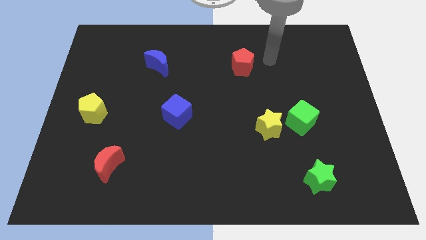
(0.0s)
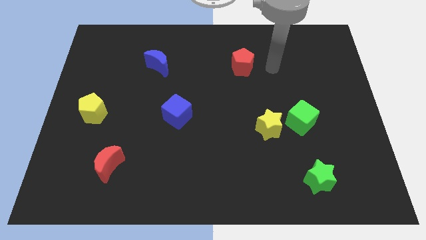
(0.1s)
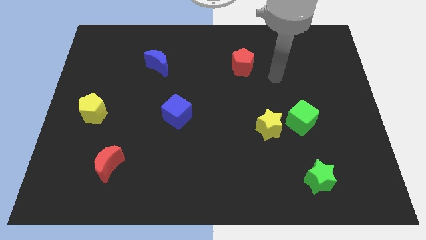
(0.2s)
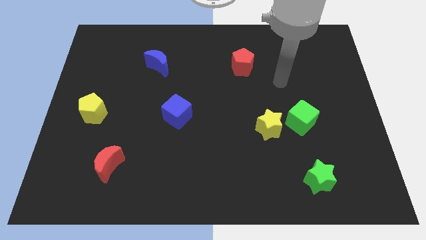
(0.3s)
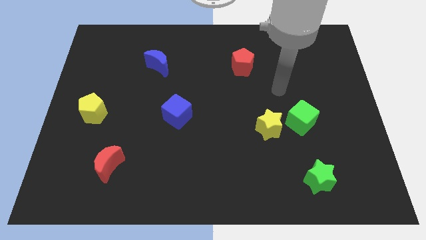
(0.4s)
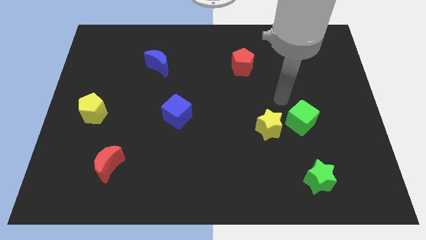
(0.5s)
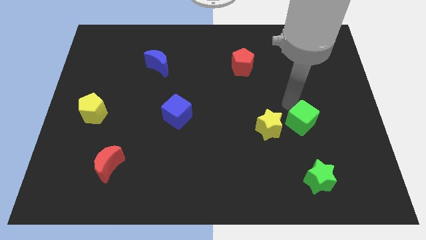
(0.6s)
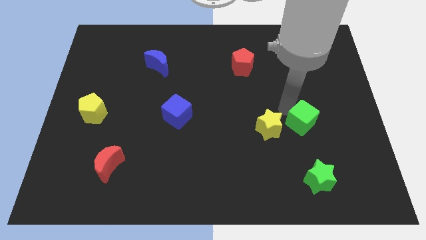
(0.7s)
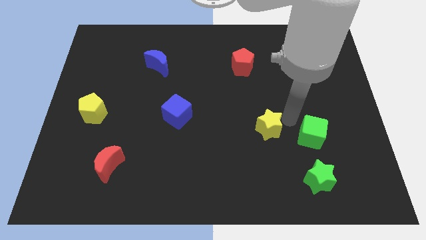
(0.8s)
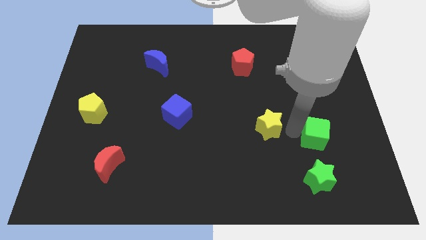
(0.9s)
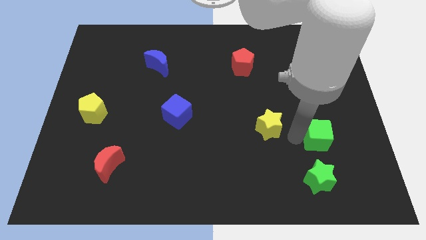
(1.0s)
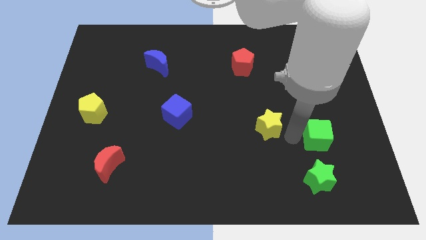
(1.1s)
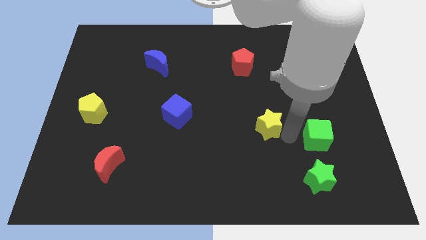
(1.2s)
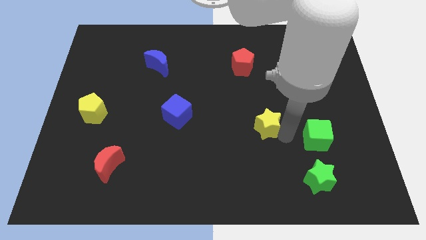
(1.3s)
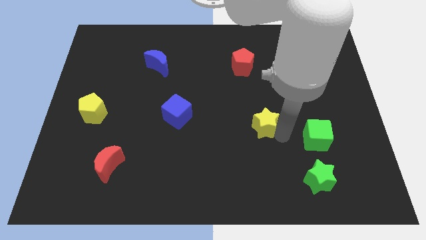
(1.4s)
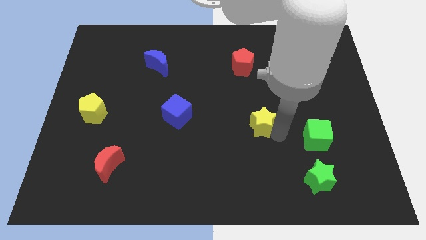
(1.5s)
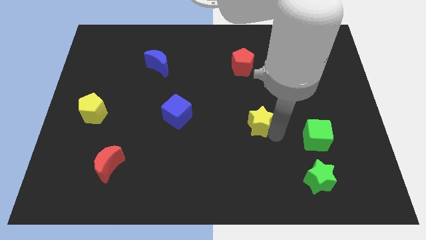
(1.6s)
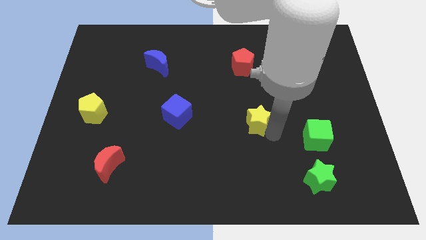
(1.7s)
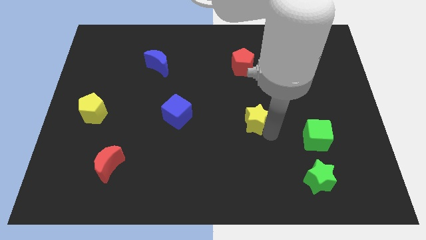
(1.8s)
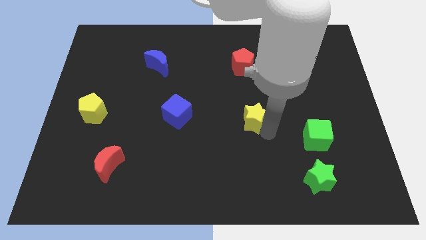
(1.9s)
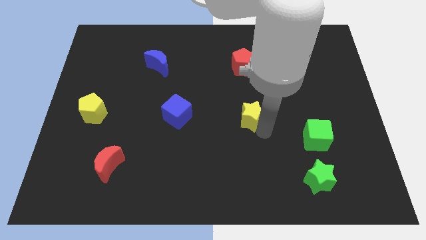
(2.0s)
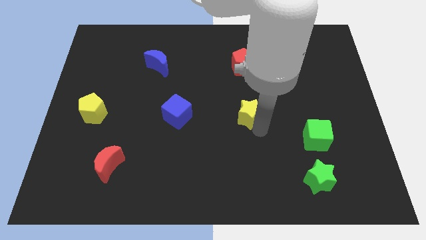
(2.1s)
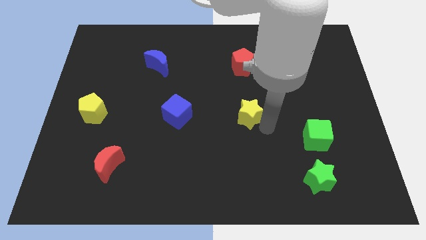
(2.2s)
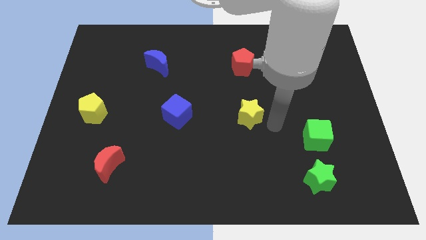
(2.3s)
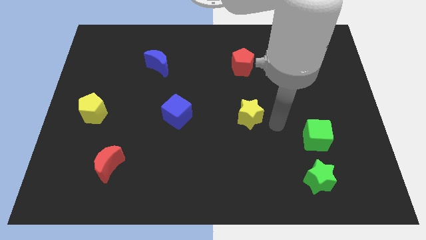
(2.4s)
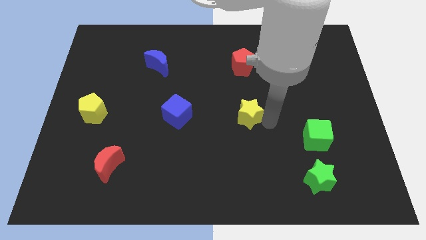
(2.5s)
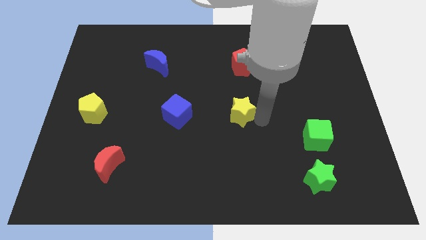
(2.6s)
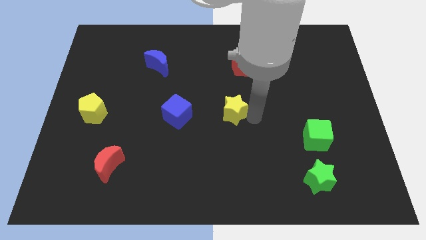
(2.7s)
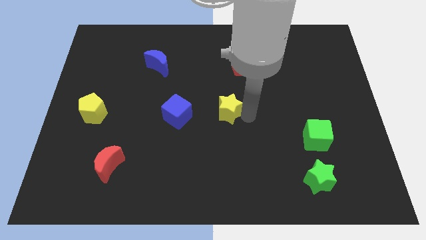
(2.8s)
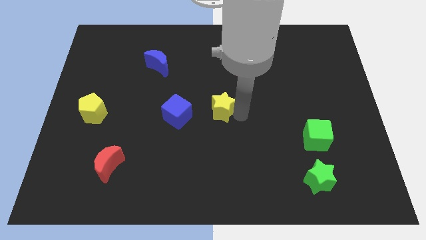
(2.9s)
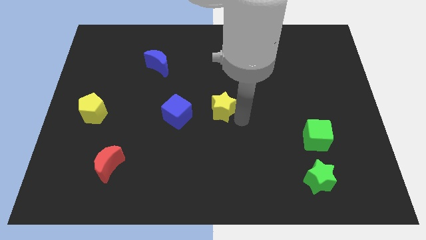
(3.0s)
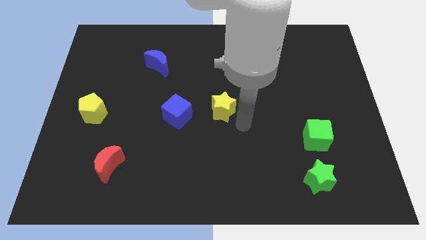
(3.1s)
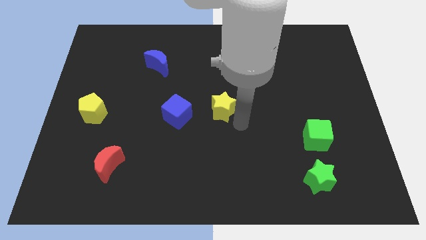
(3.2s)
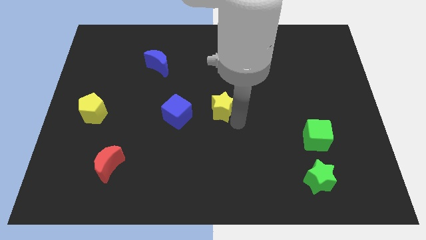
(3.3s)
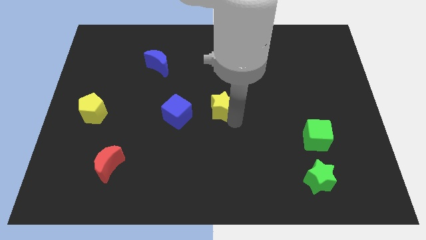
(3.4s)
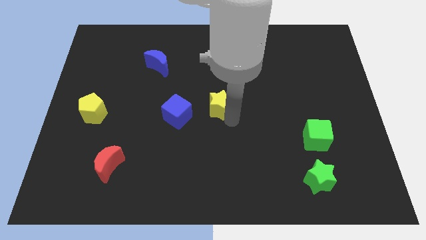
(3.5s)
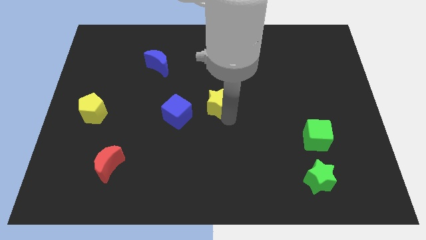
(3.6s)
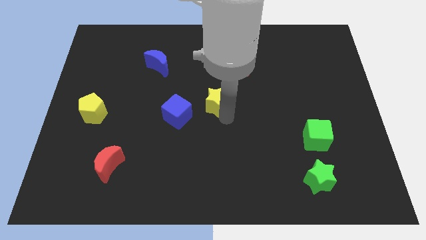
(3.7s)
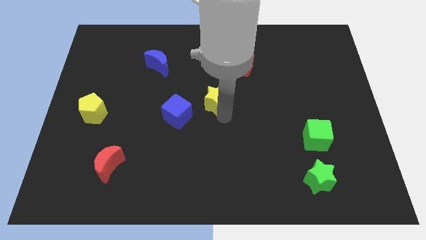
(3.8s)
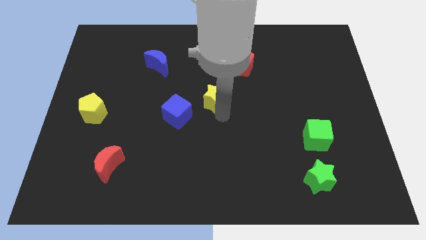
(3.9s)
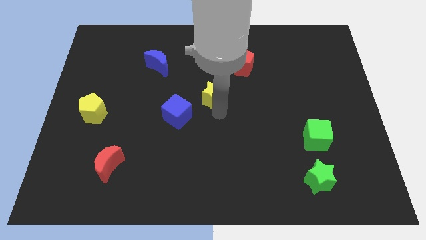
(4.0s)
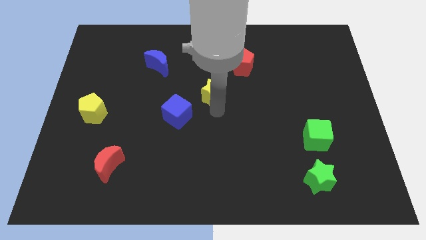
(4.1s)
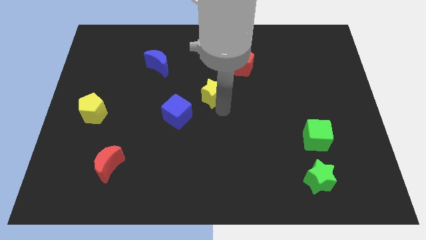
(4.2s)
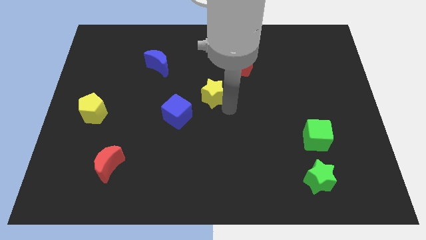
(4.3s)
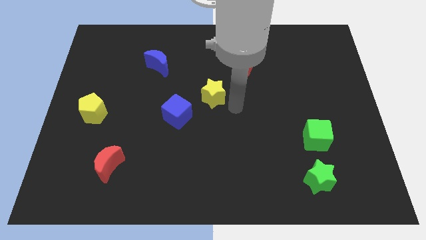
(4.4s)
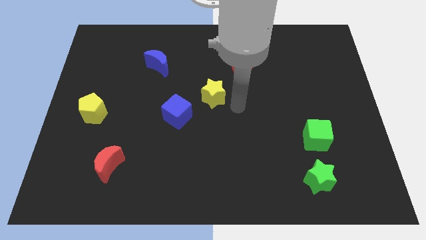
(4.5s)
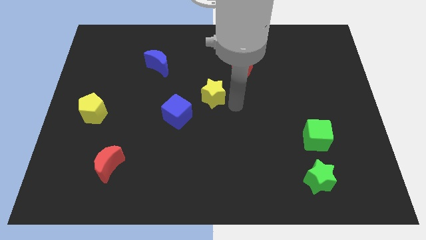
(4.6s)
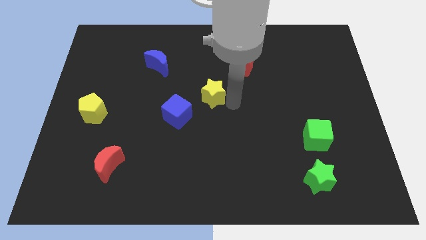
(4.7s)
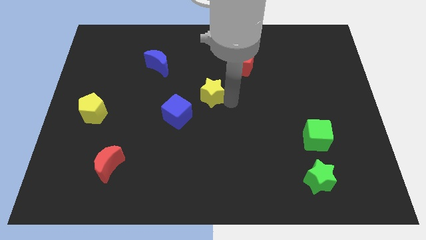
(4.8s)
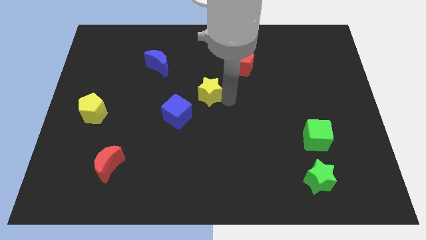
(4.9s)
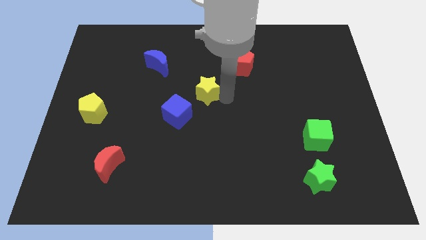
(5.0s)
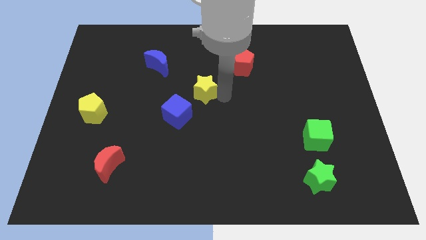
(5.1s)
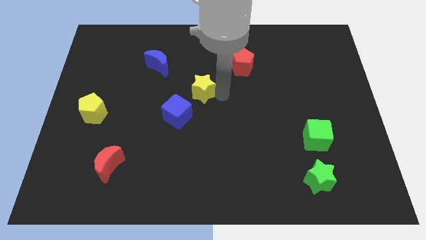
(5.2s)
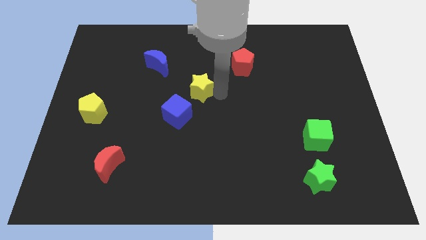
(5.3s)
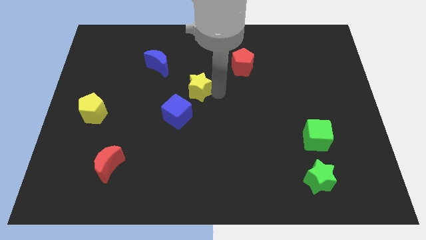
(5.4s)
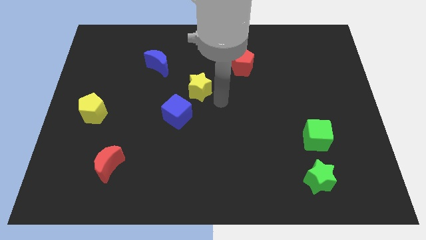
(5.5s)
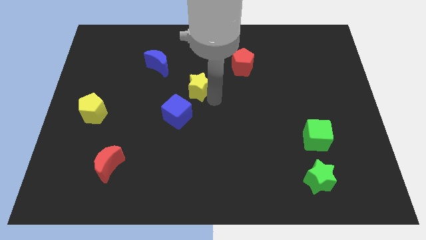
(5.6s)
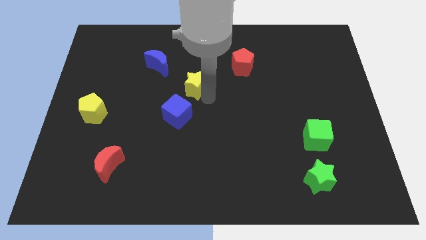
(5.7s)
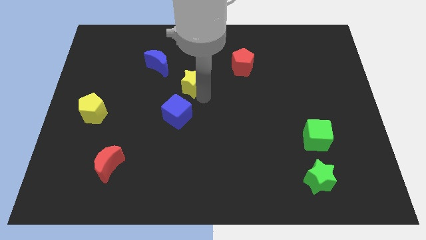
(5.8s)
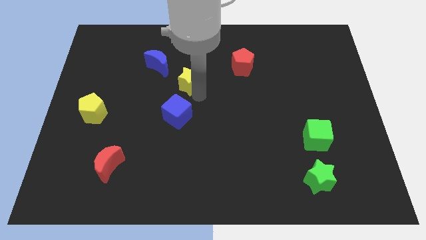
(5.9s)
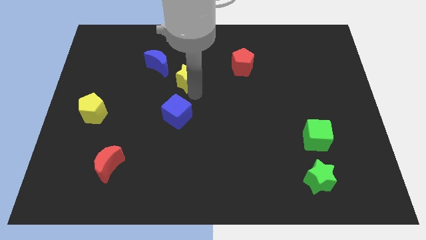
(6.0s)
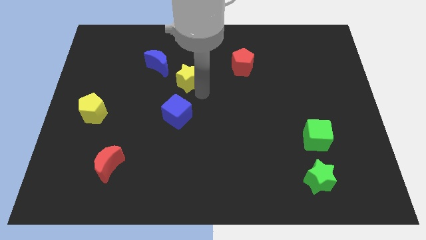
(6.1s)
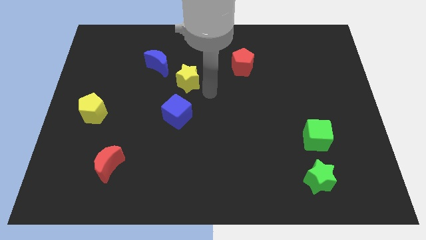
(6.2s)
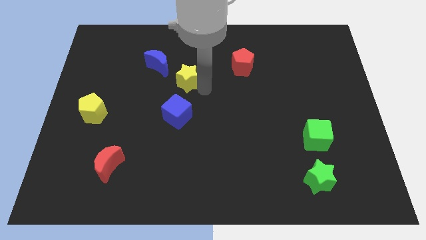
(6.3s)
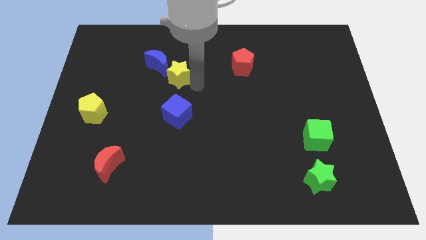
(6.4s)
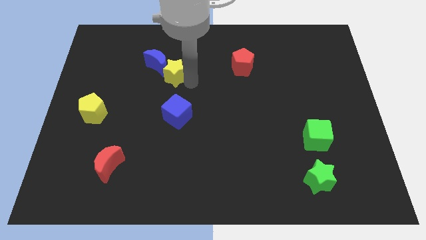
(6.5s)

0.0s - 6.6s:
move the yellow star next to the blue moon

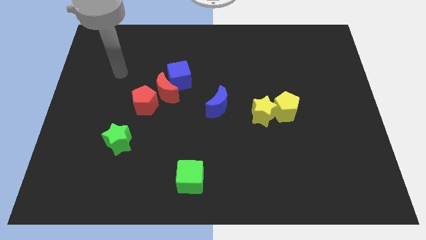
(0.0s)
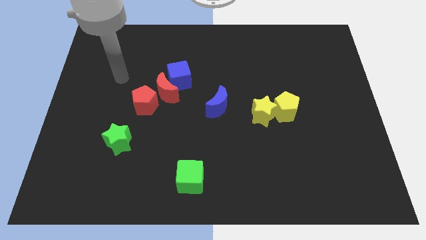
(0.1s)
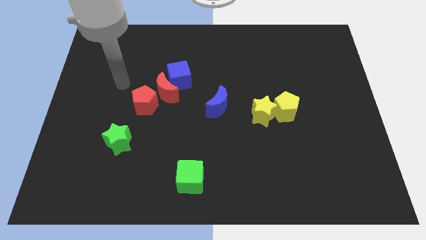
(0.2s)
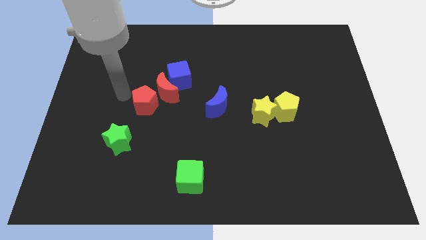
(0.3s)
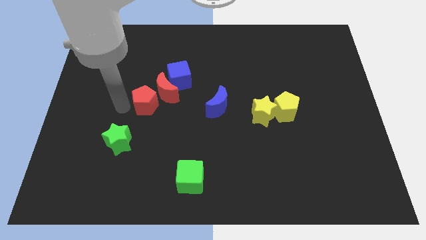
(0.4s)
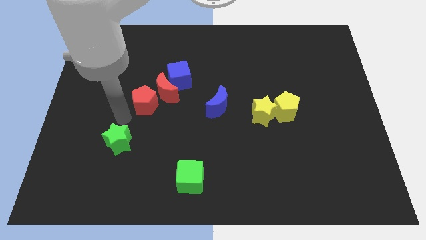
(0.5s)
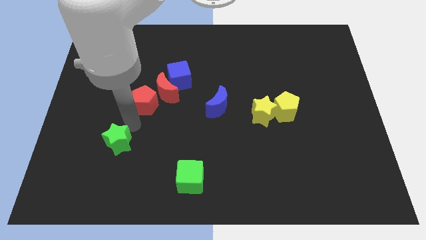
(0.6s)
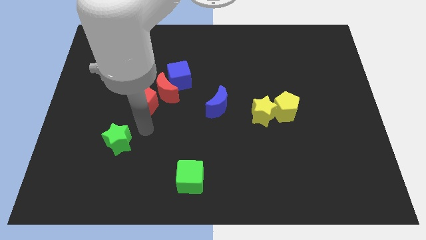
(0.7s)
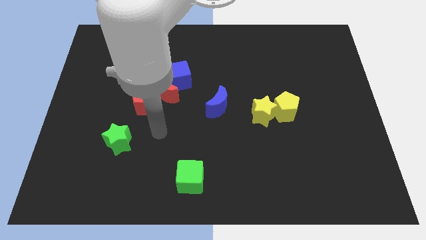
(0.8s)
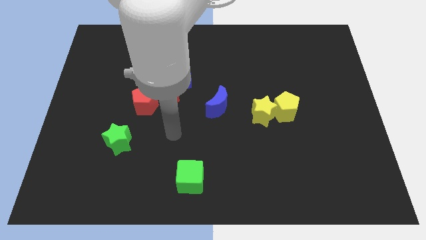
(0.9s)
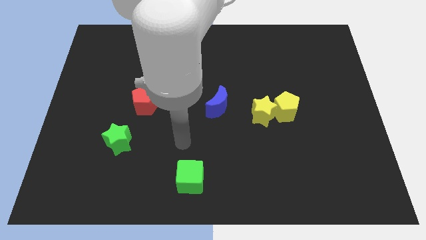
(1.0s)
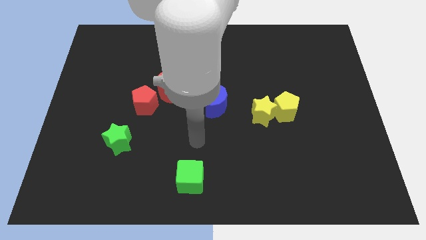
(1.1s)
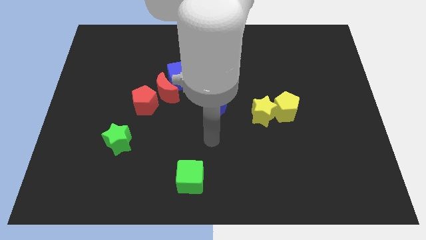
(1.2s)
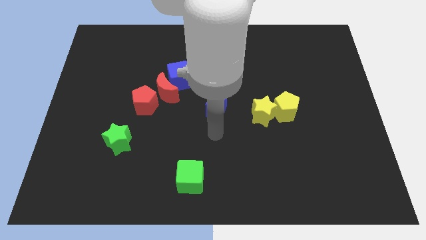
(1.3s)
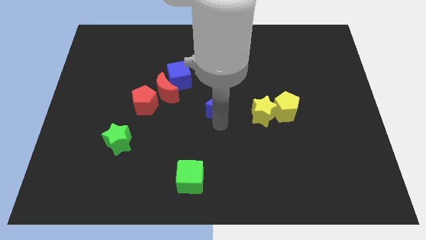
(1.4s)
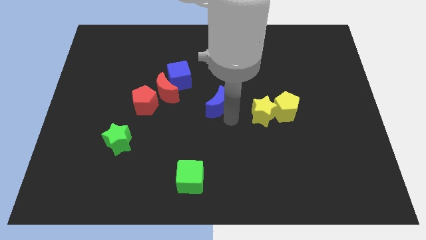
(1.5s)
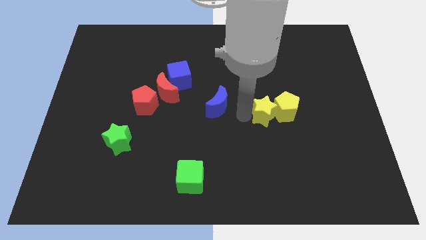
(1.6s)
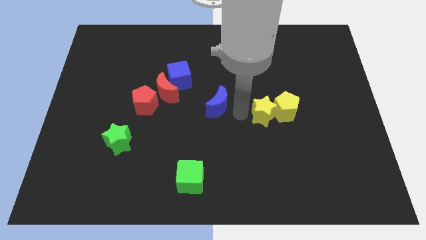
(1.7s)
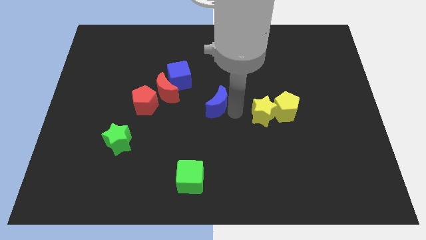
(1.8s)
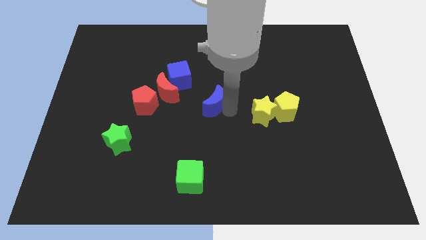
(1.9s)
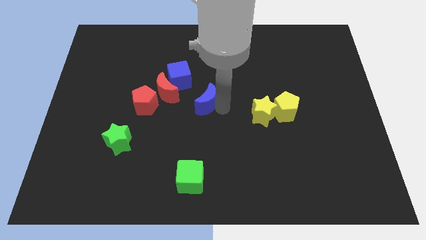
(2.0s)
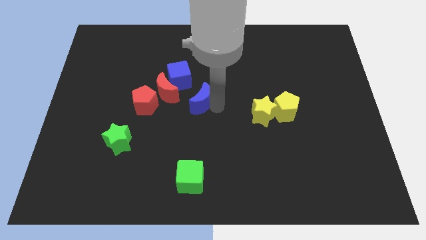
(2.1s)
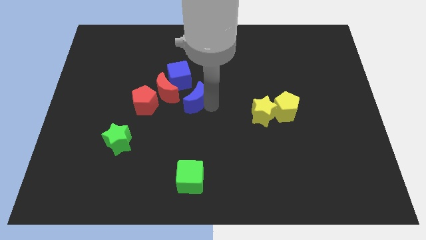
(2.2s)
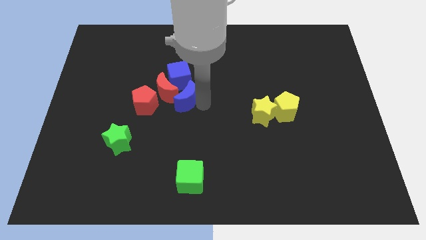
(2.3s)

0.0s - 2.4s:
slide the blue moon towards the red moon
